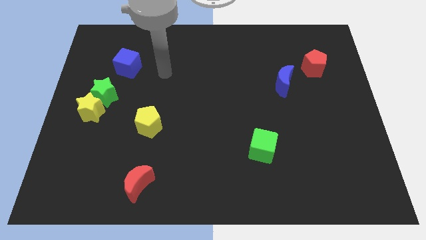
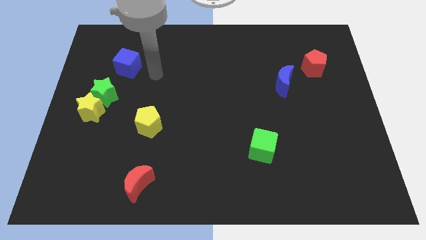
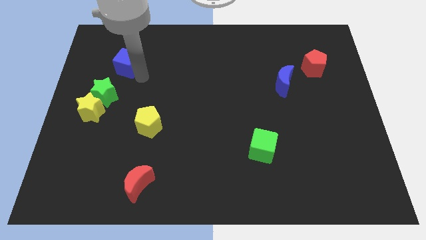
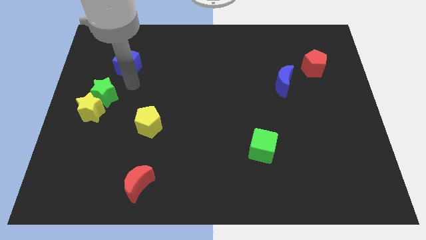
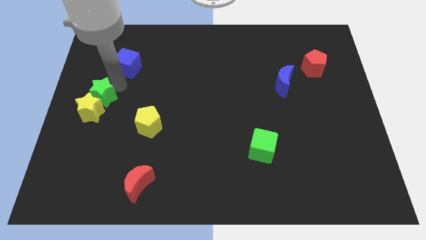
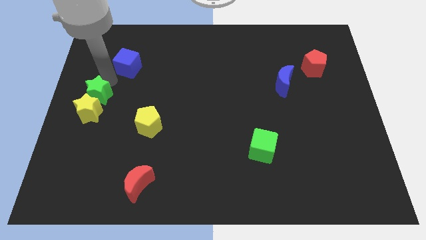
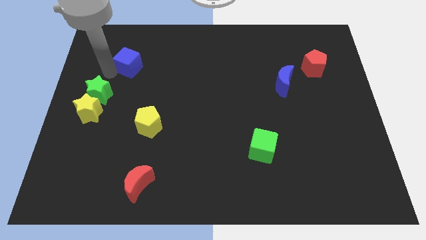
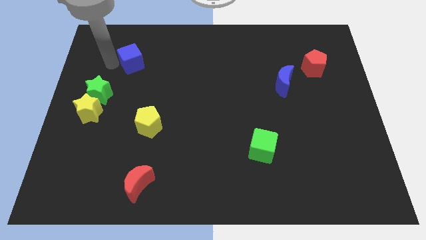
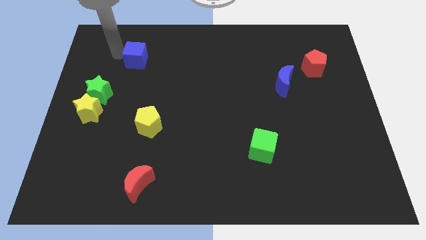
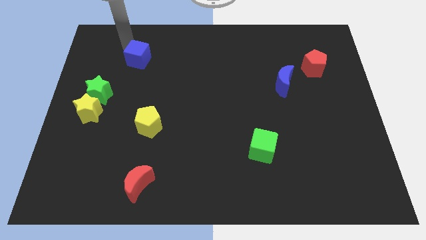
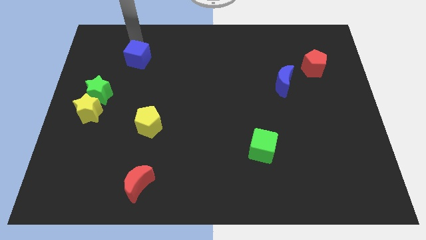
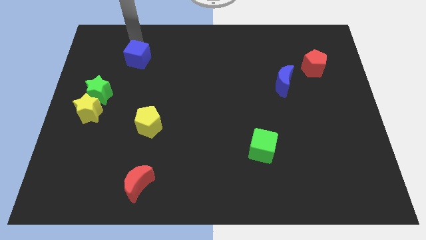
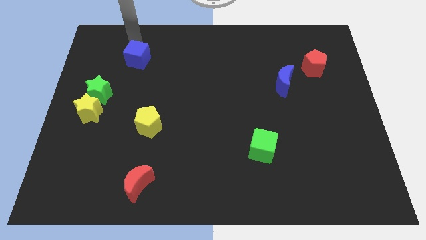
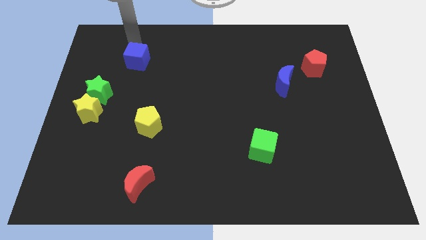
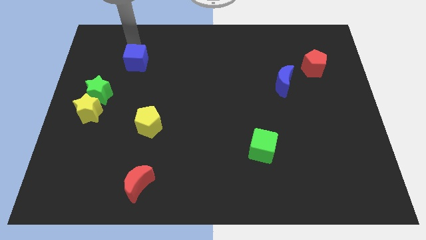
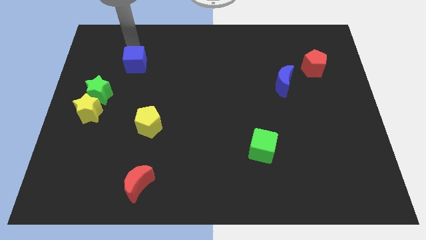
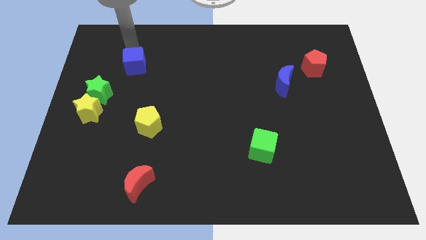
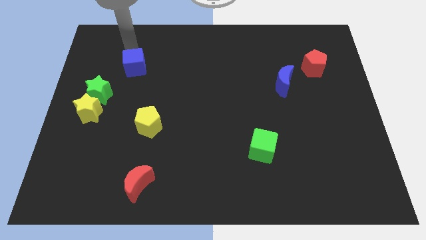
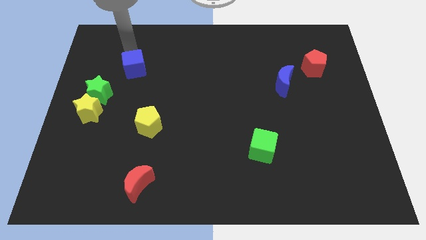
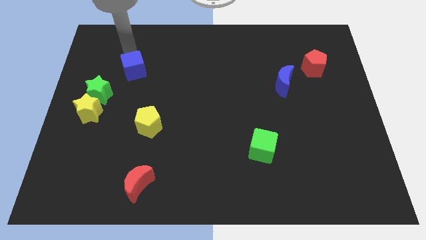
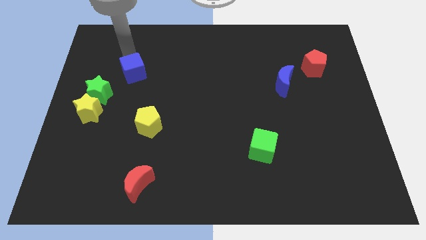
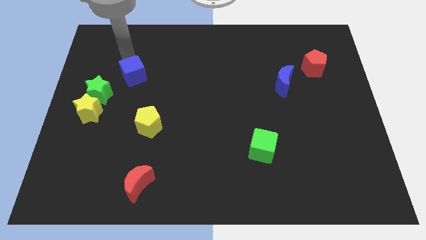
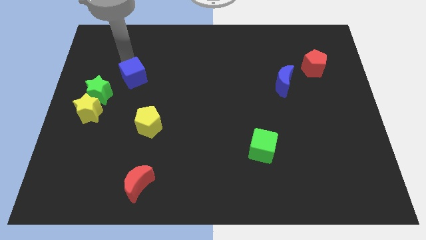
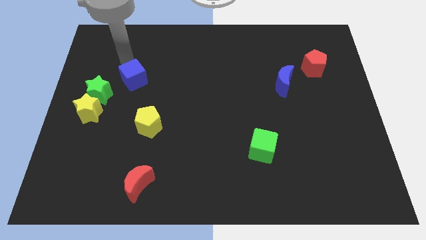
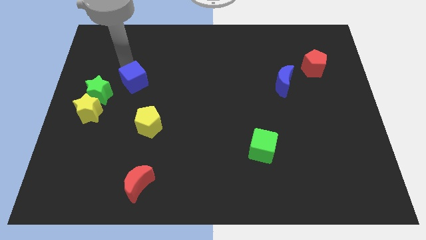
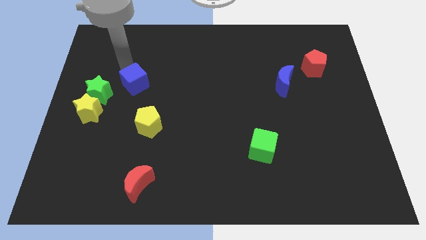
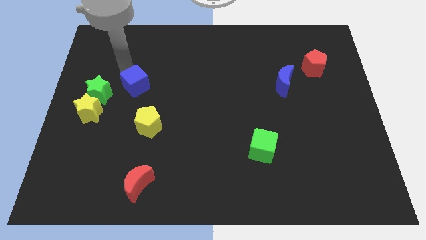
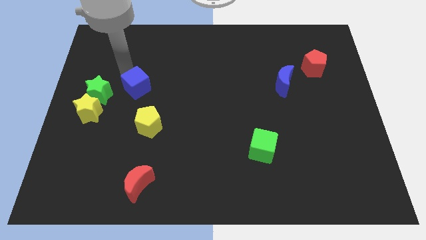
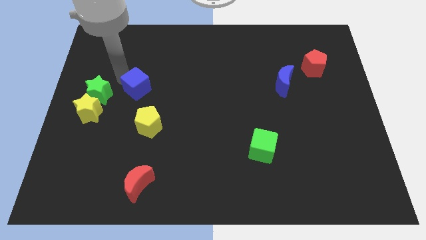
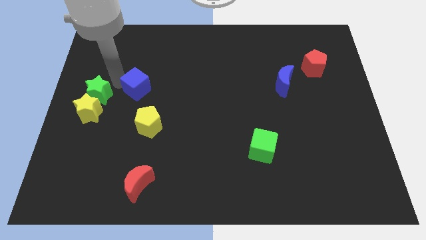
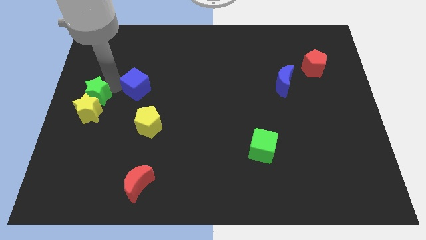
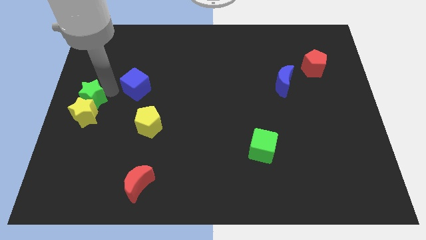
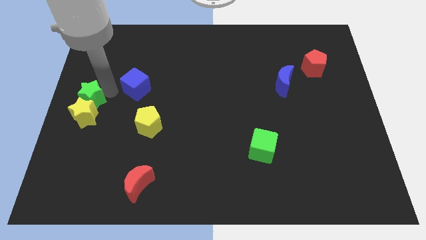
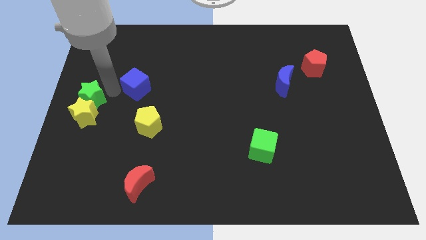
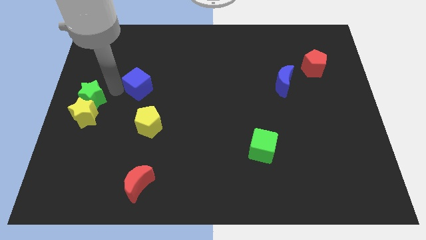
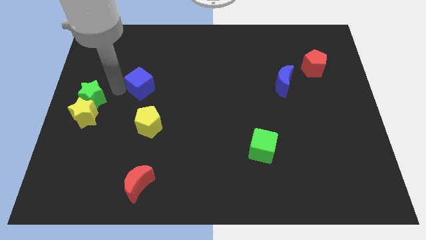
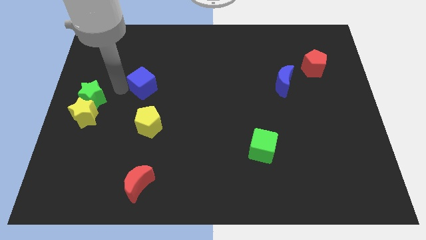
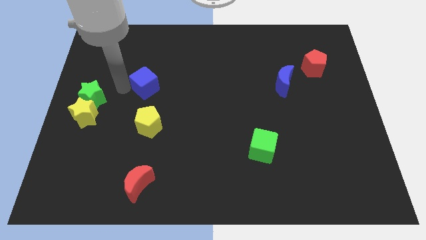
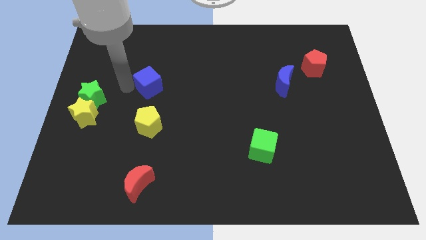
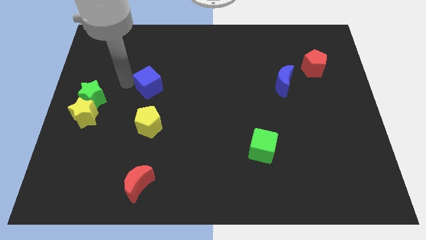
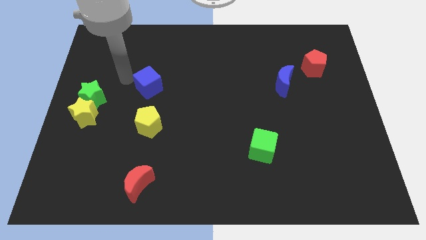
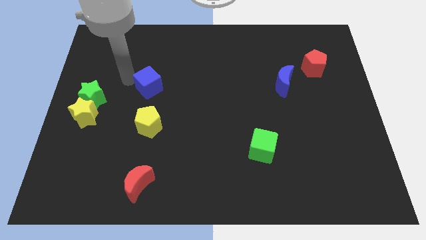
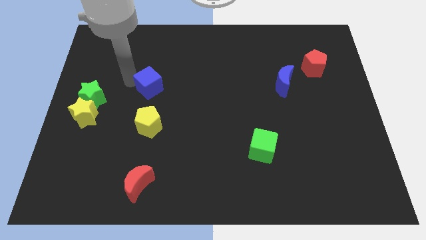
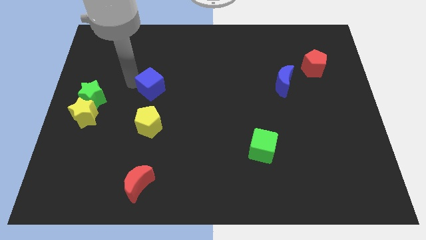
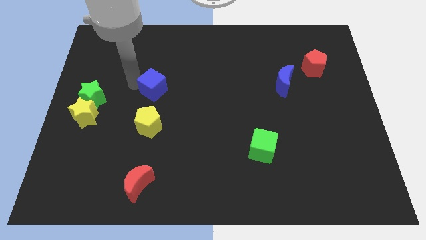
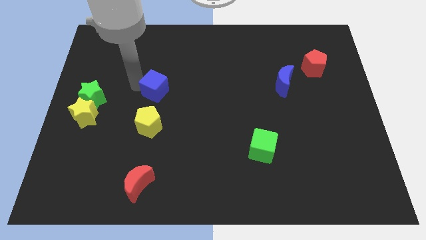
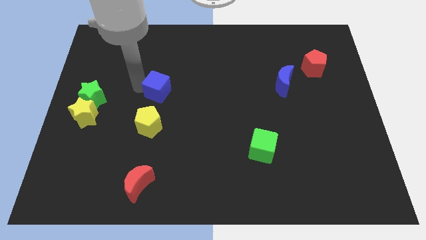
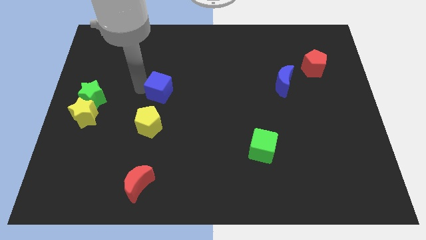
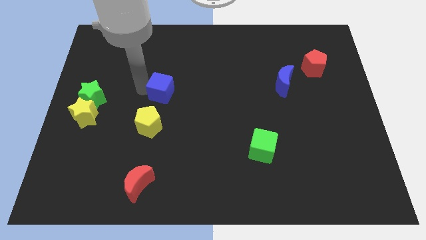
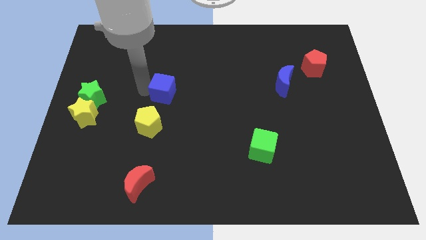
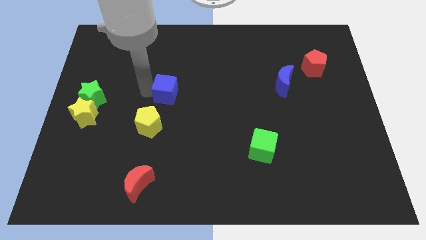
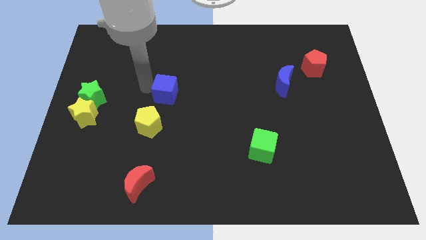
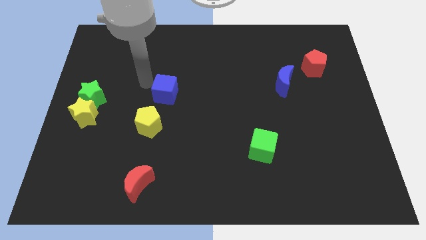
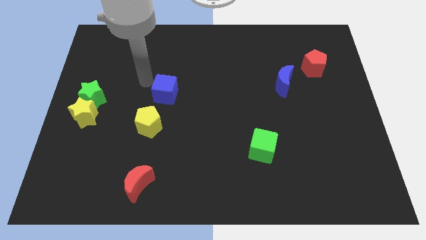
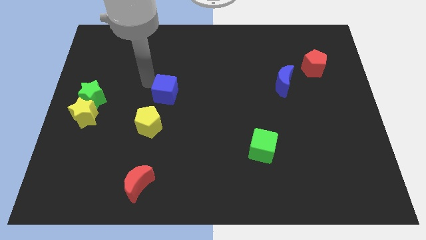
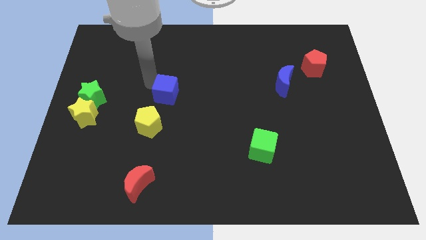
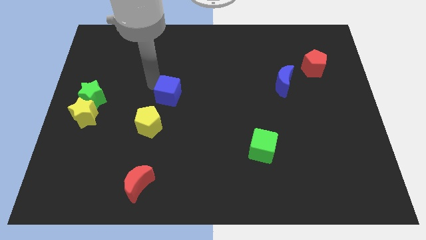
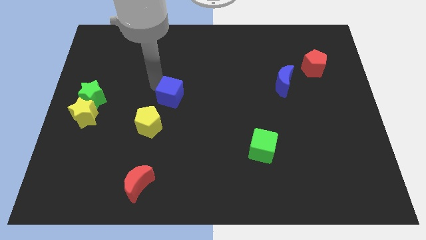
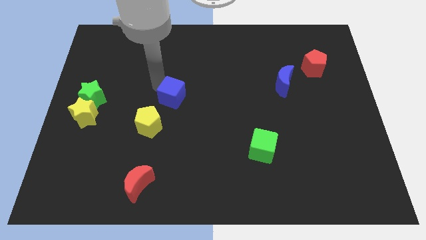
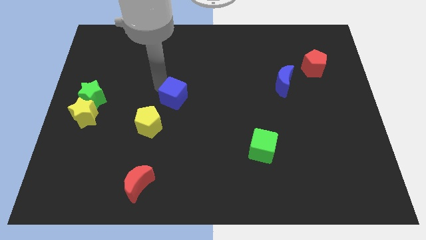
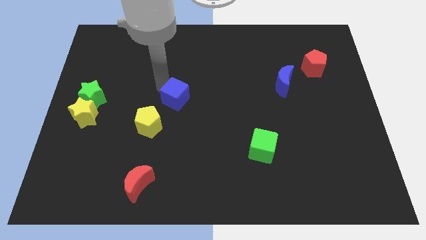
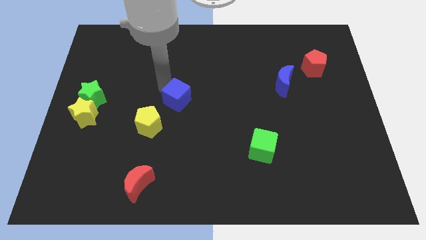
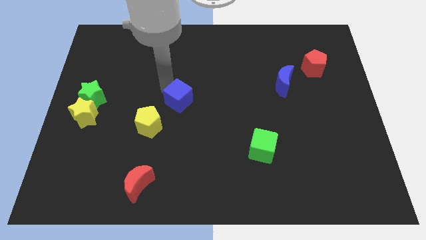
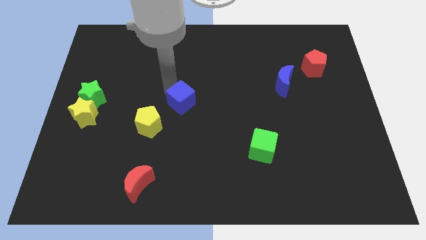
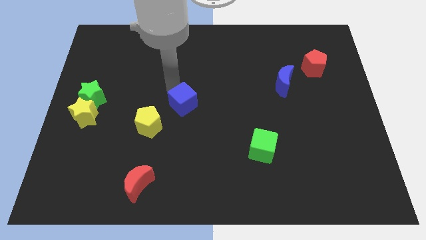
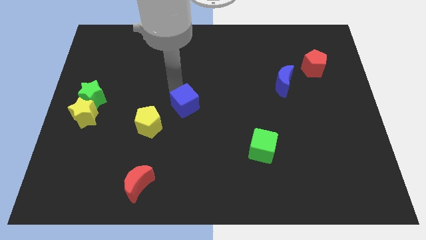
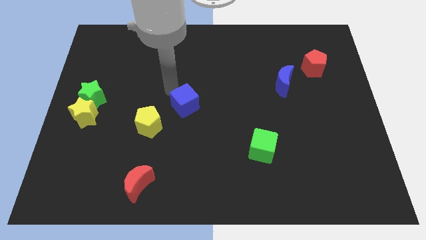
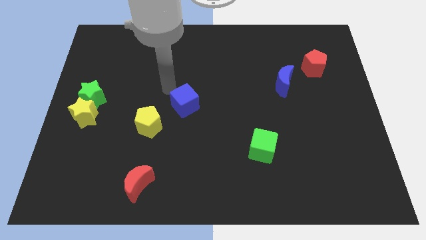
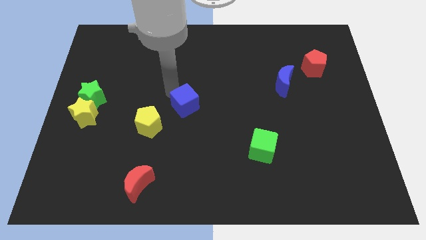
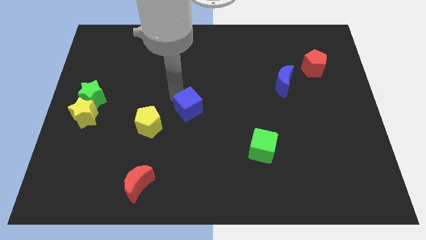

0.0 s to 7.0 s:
move the blue cube diagonally downwards and right

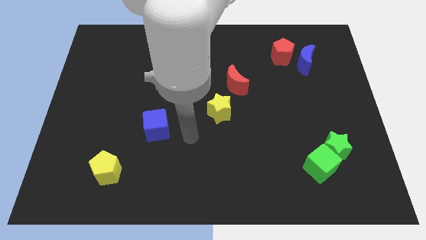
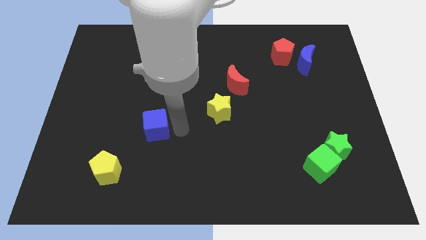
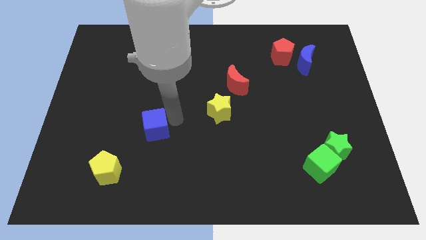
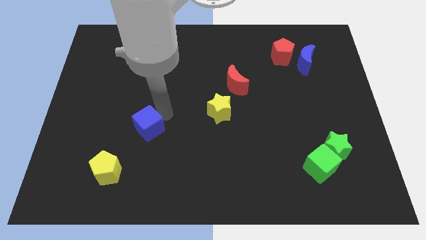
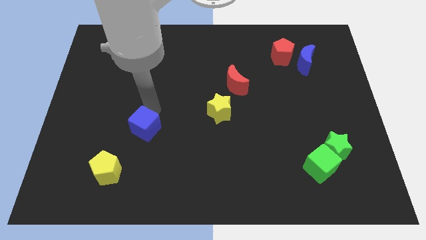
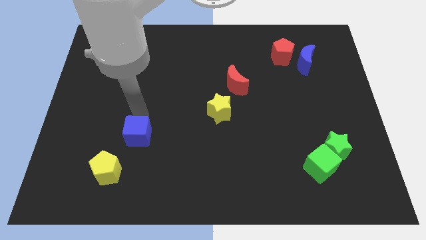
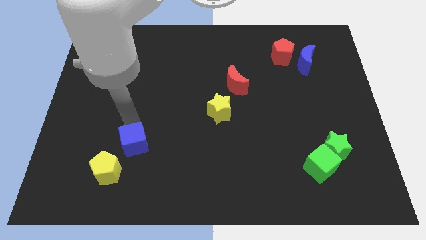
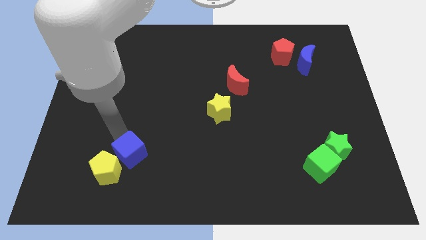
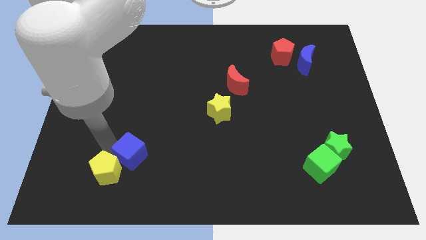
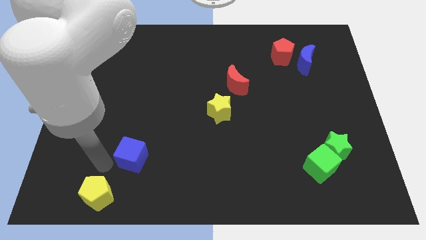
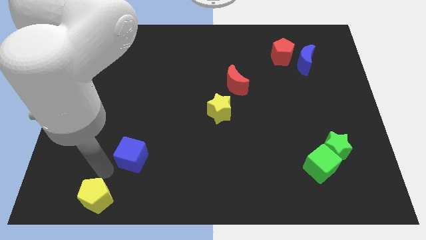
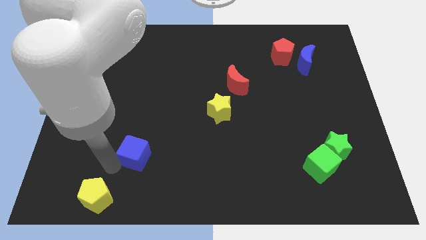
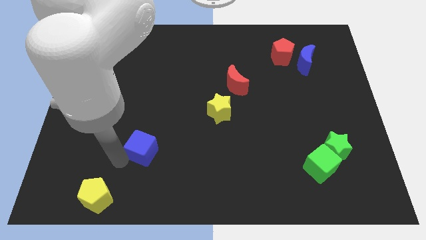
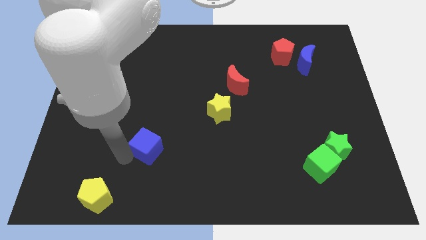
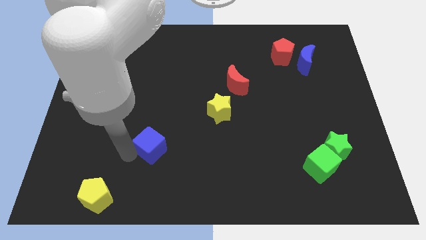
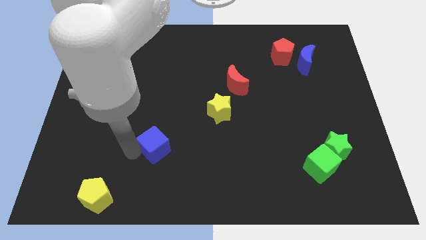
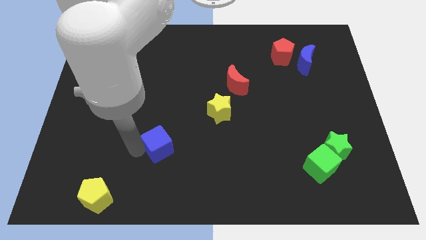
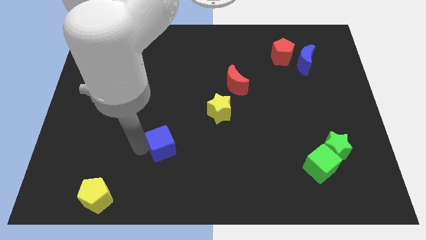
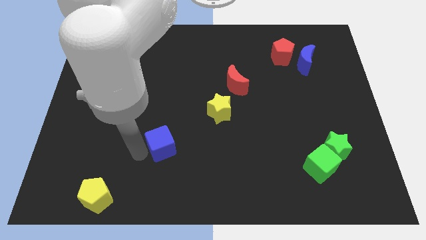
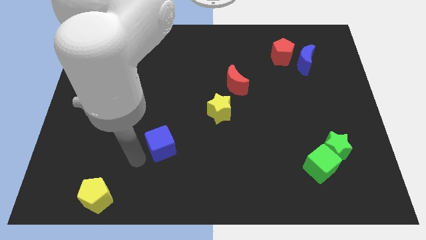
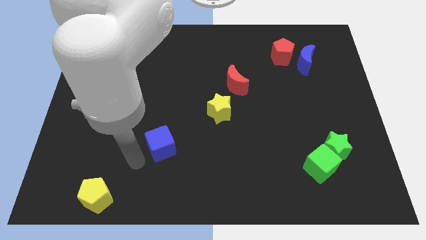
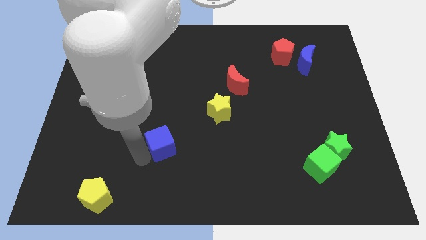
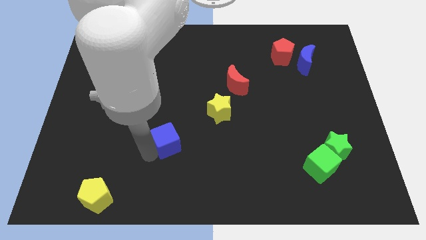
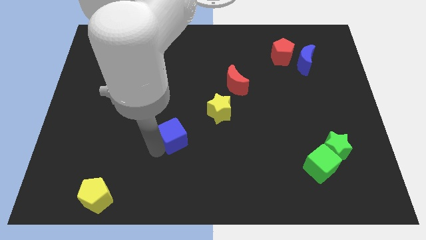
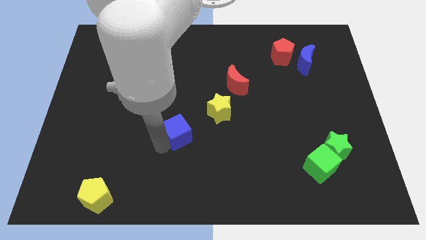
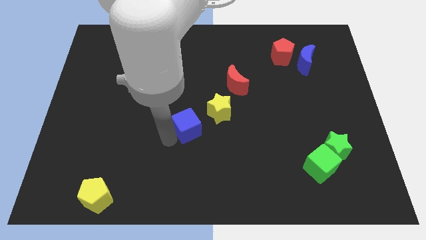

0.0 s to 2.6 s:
slightly push the blue cube right
